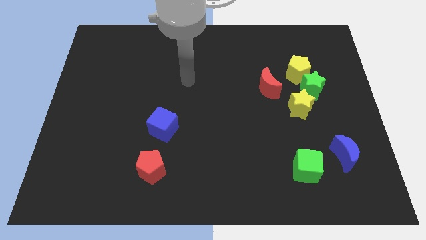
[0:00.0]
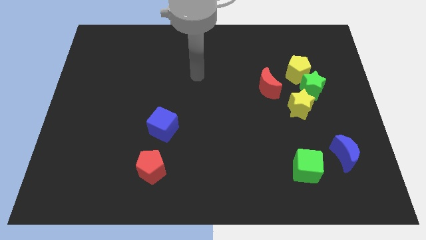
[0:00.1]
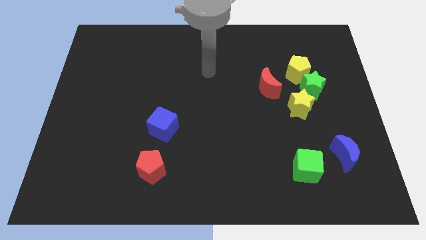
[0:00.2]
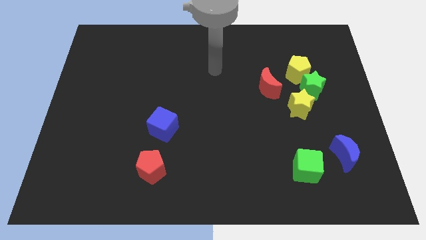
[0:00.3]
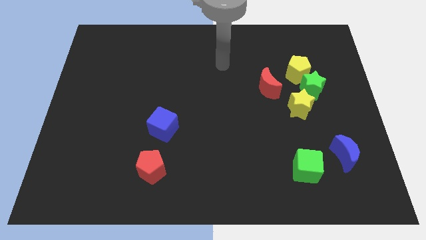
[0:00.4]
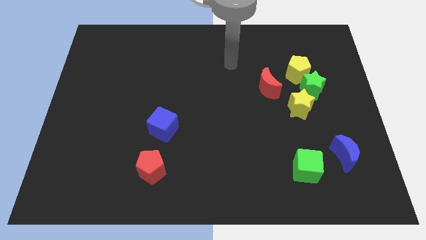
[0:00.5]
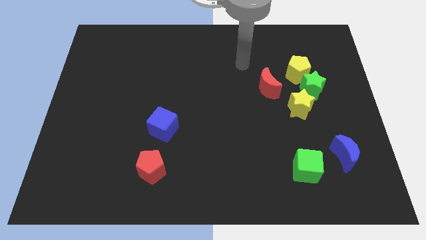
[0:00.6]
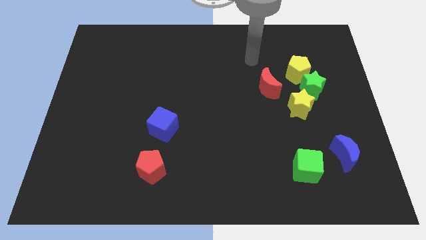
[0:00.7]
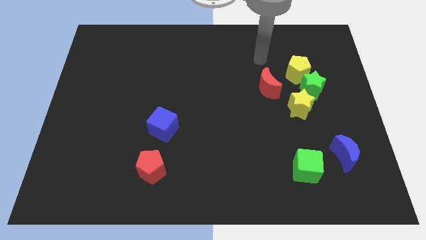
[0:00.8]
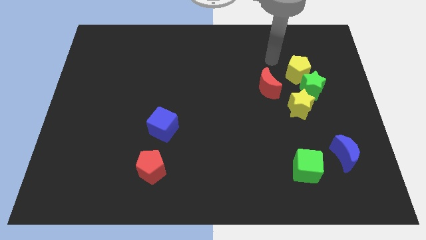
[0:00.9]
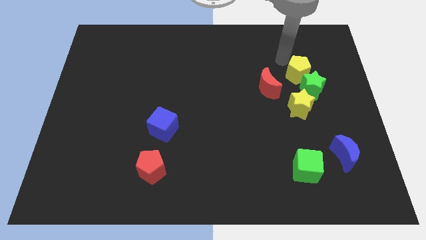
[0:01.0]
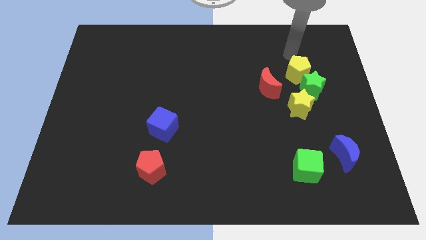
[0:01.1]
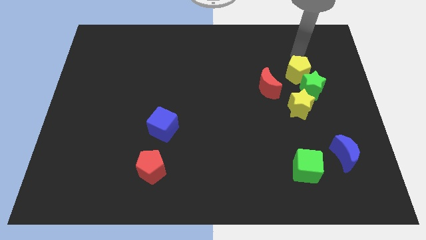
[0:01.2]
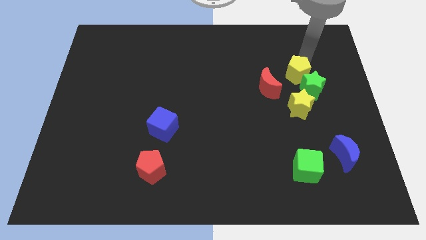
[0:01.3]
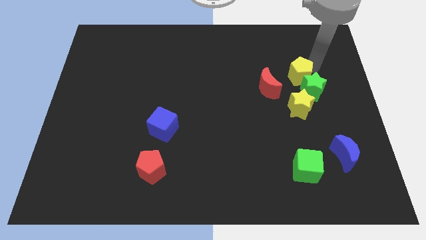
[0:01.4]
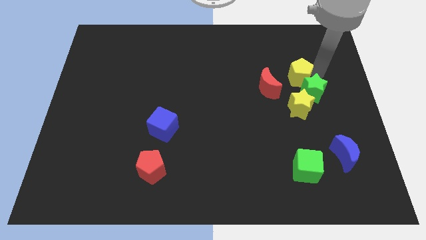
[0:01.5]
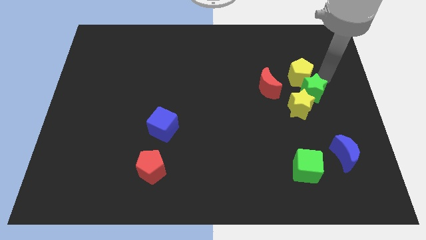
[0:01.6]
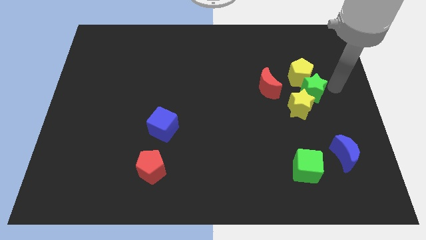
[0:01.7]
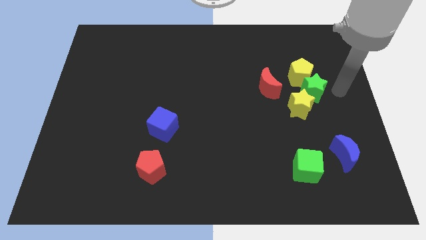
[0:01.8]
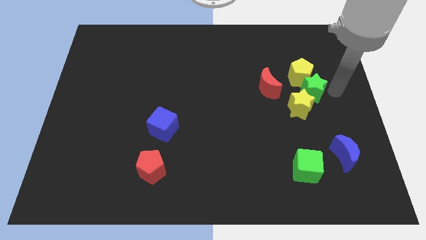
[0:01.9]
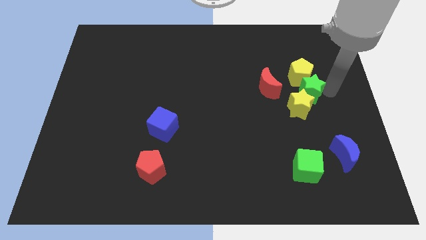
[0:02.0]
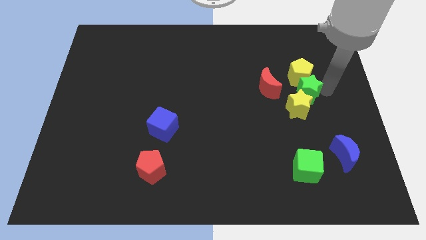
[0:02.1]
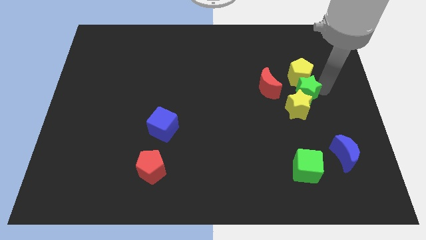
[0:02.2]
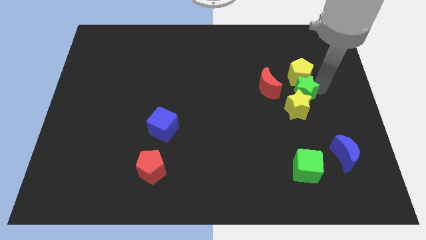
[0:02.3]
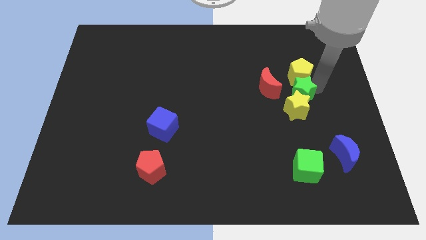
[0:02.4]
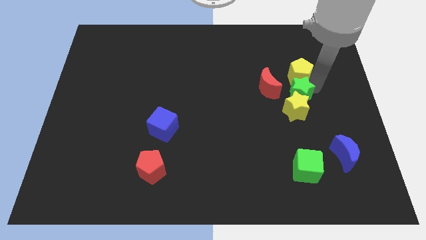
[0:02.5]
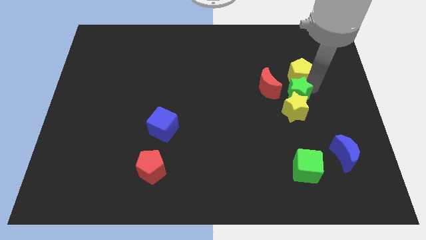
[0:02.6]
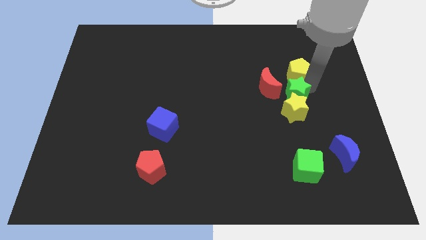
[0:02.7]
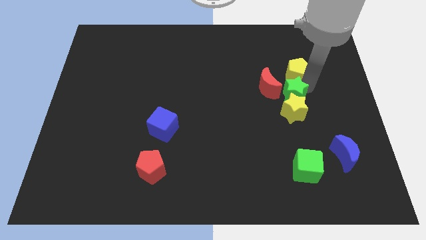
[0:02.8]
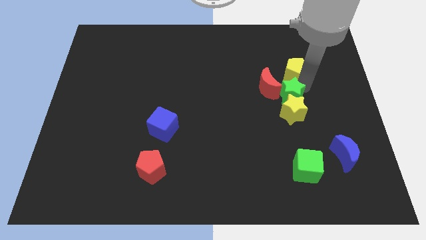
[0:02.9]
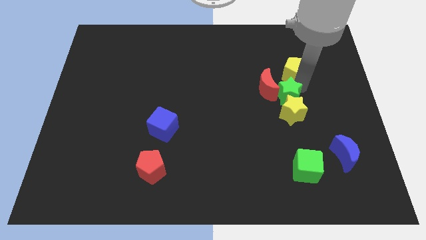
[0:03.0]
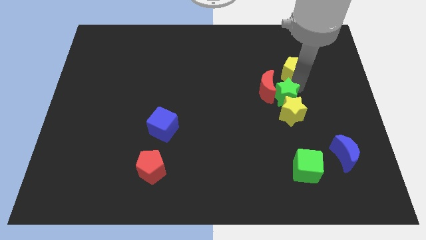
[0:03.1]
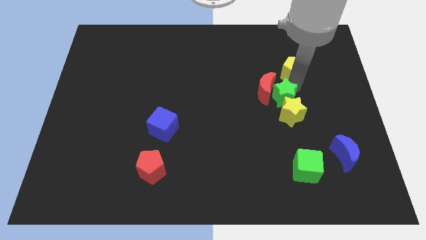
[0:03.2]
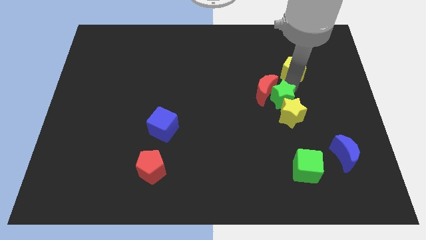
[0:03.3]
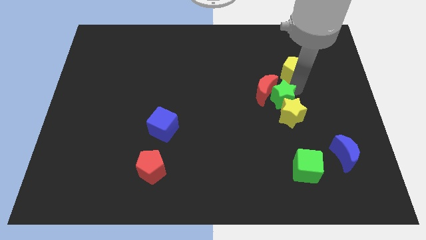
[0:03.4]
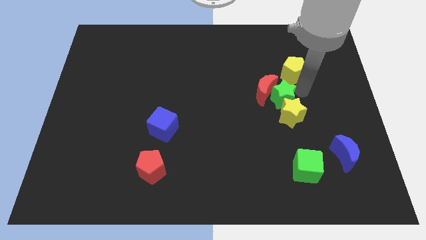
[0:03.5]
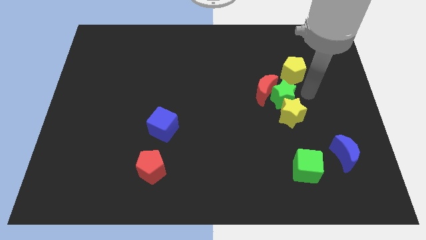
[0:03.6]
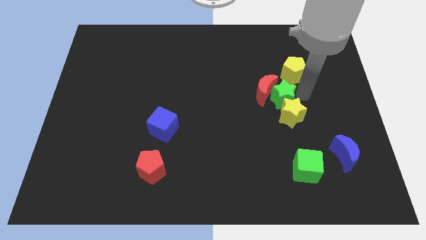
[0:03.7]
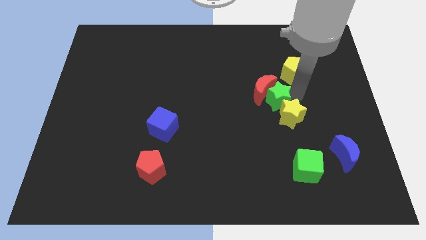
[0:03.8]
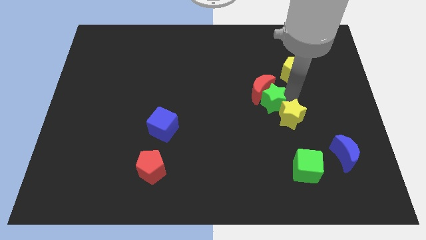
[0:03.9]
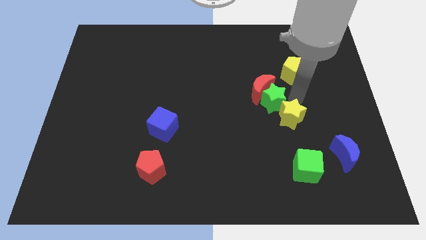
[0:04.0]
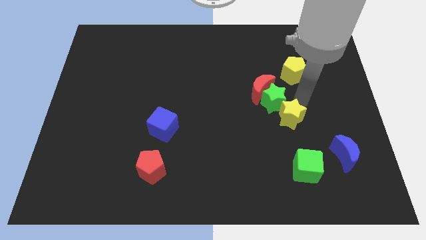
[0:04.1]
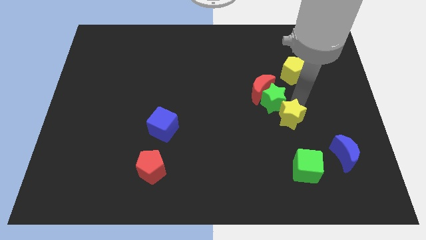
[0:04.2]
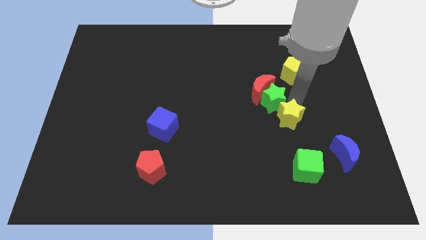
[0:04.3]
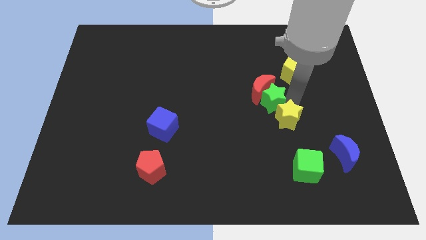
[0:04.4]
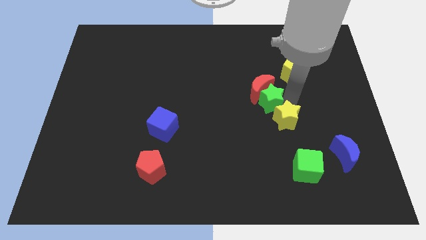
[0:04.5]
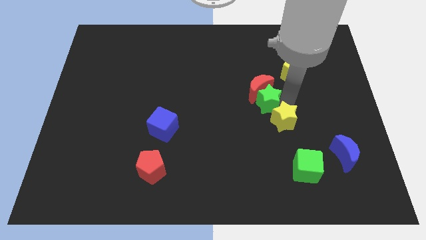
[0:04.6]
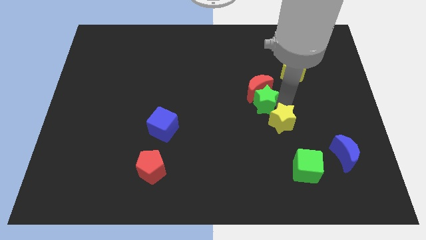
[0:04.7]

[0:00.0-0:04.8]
push the green star to the middle

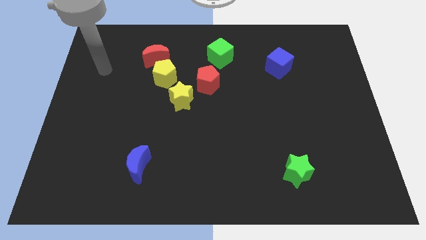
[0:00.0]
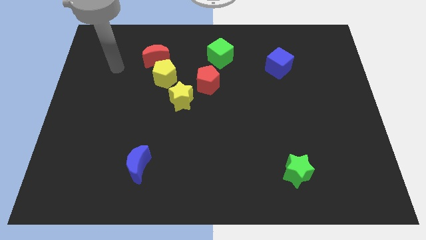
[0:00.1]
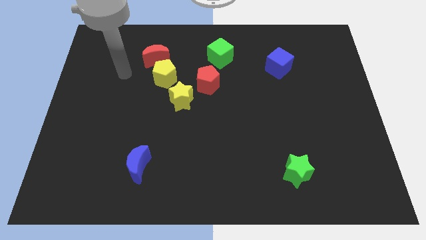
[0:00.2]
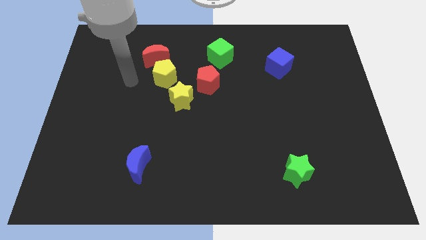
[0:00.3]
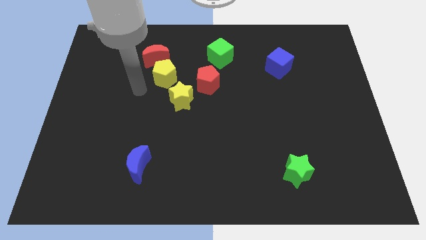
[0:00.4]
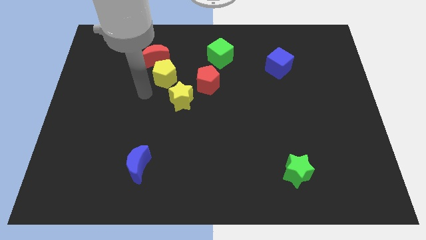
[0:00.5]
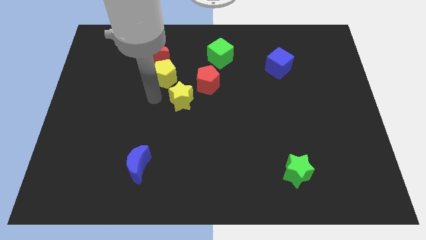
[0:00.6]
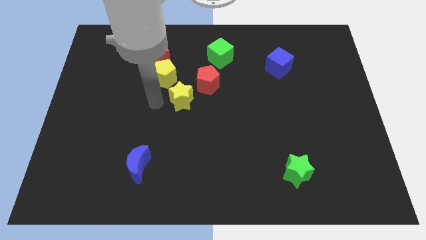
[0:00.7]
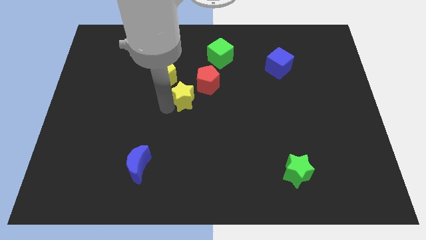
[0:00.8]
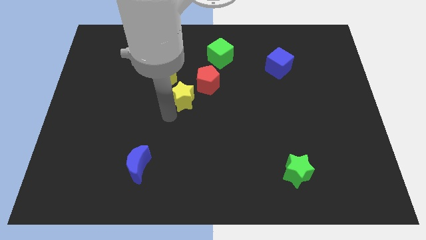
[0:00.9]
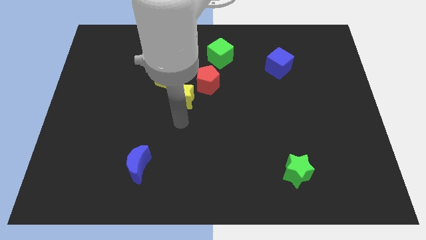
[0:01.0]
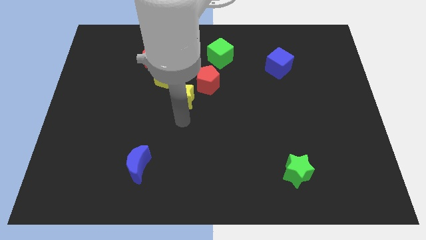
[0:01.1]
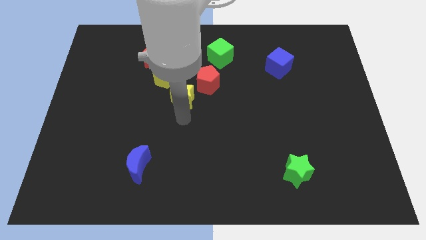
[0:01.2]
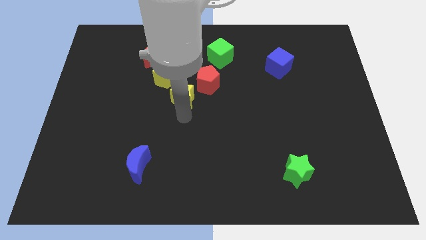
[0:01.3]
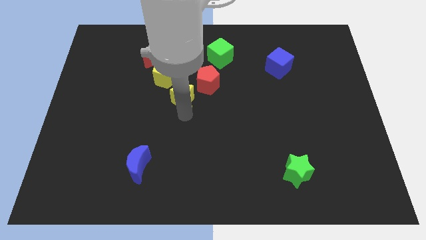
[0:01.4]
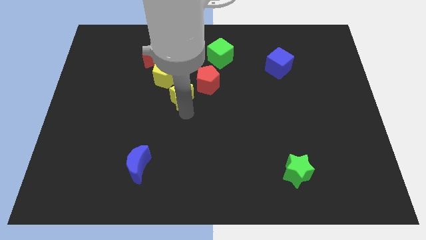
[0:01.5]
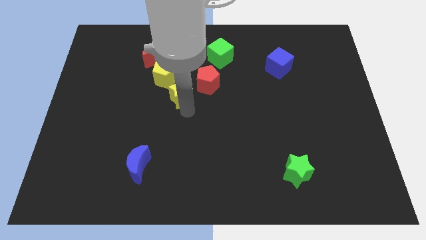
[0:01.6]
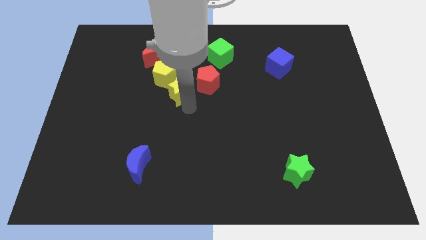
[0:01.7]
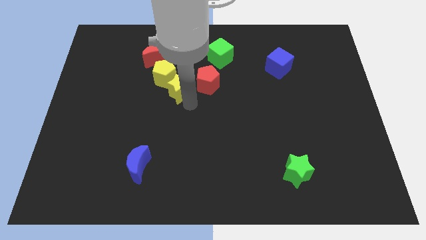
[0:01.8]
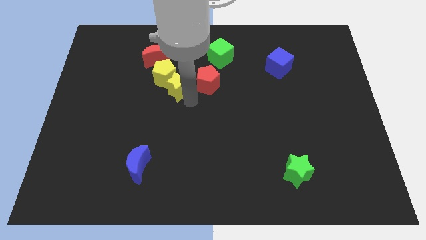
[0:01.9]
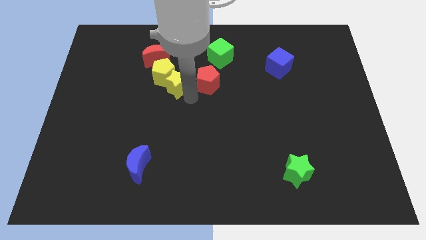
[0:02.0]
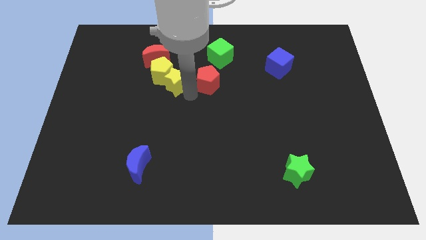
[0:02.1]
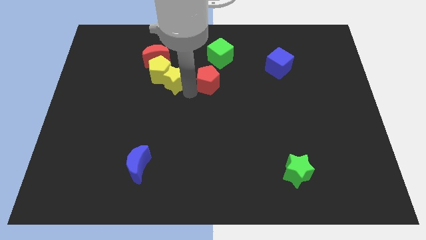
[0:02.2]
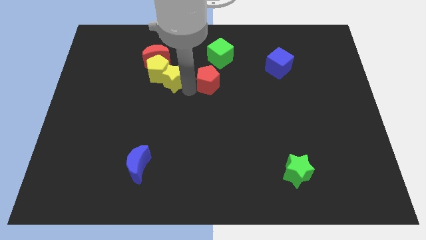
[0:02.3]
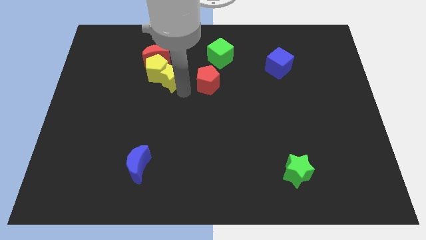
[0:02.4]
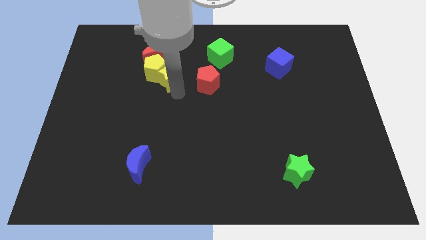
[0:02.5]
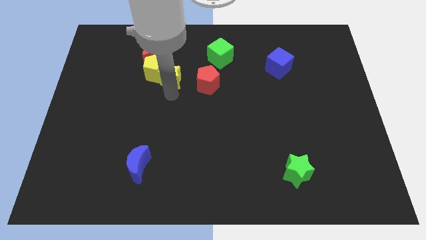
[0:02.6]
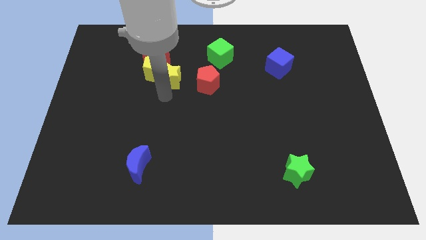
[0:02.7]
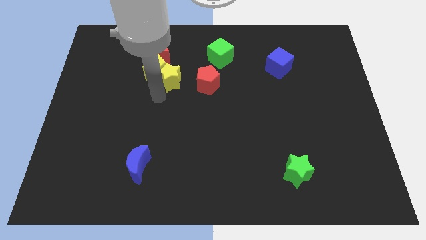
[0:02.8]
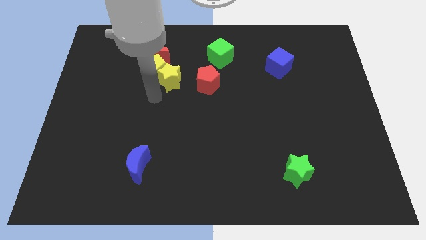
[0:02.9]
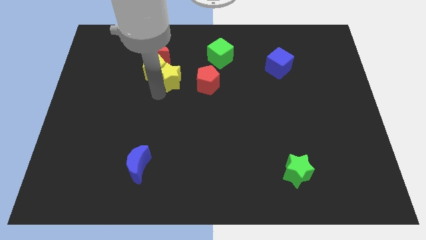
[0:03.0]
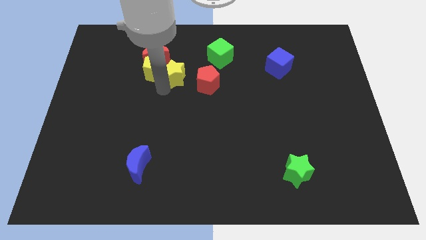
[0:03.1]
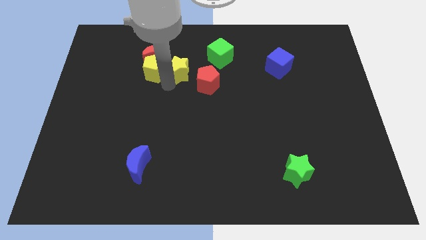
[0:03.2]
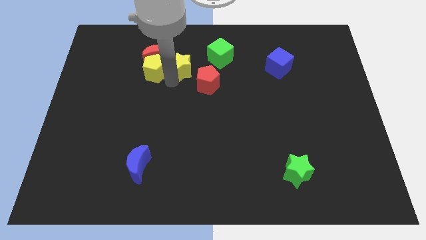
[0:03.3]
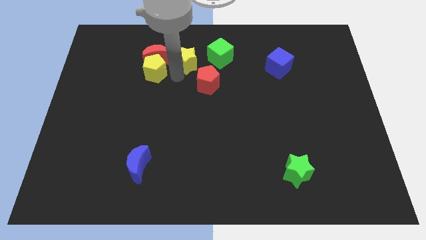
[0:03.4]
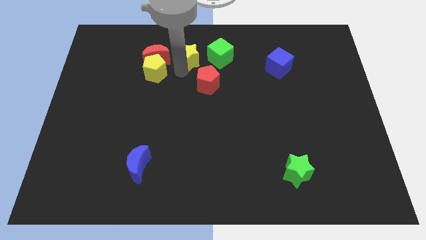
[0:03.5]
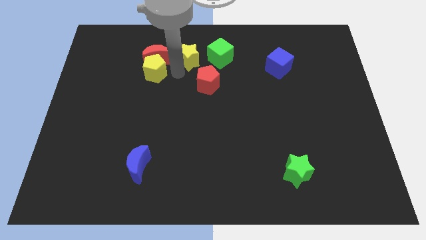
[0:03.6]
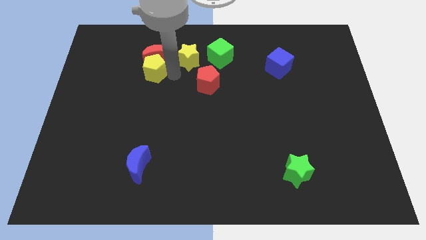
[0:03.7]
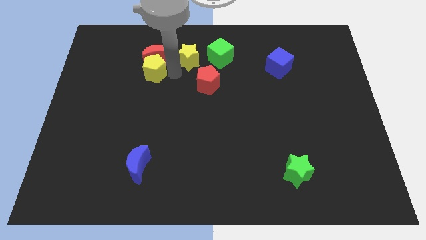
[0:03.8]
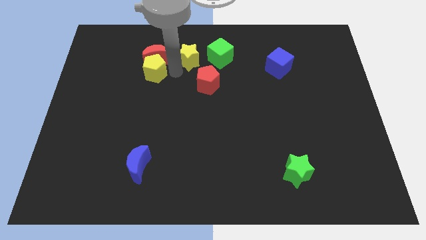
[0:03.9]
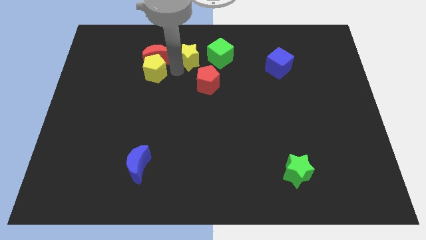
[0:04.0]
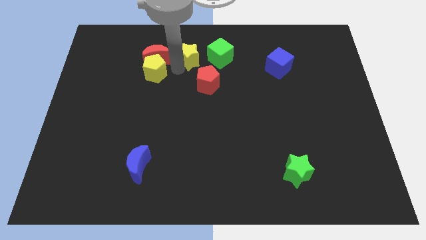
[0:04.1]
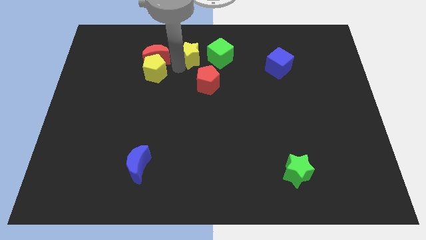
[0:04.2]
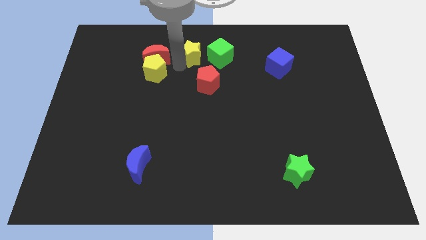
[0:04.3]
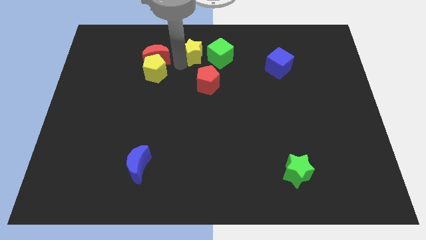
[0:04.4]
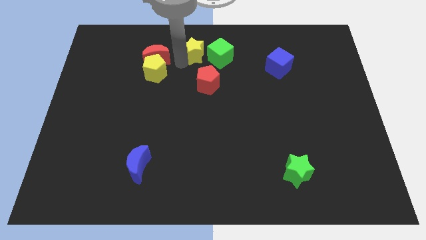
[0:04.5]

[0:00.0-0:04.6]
move the yellow star to the top side
